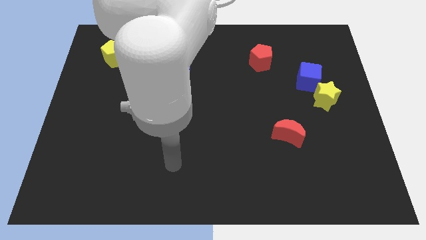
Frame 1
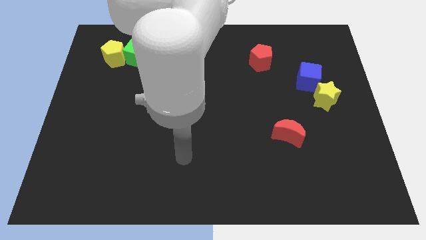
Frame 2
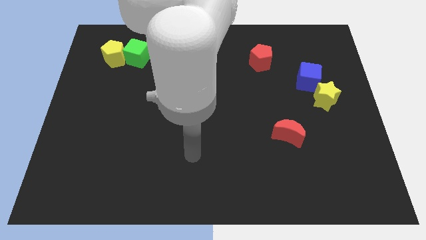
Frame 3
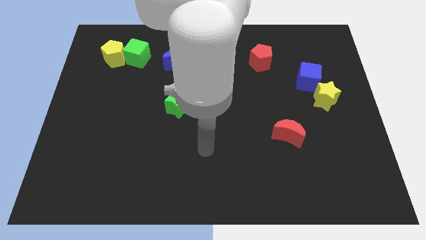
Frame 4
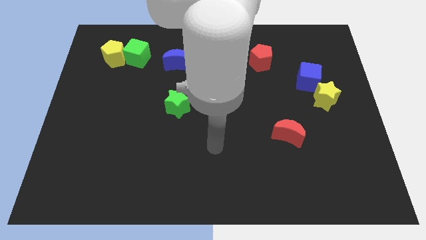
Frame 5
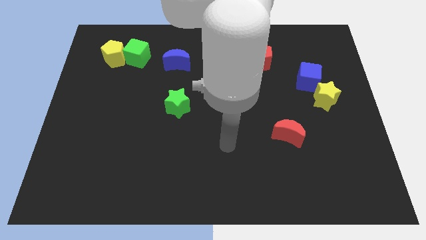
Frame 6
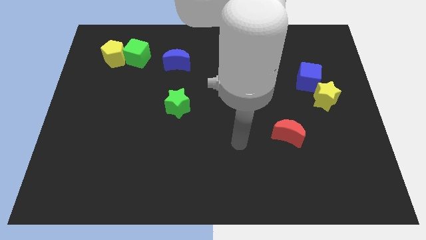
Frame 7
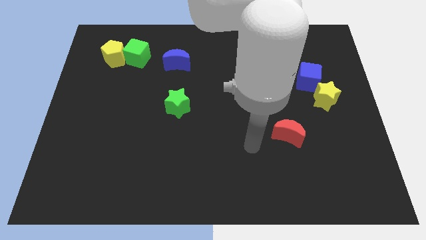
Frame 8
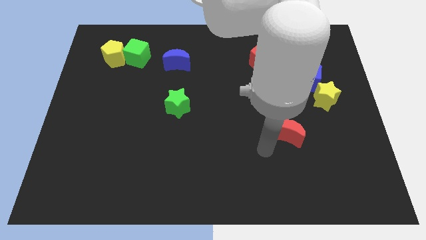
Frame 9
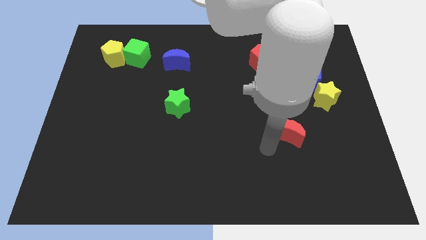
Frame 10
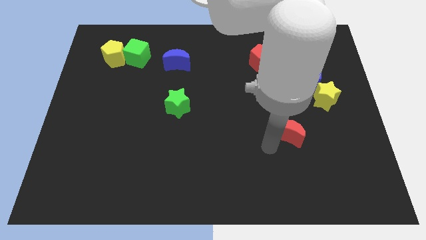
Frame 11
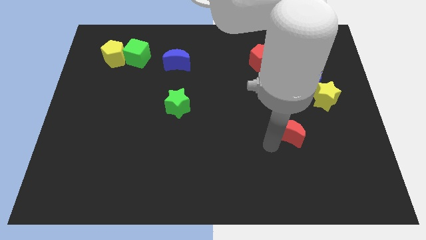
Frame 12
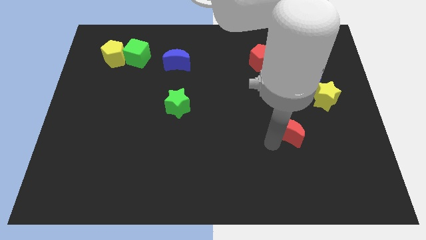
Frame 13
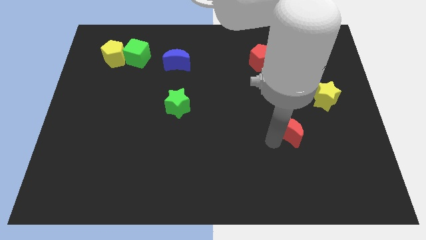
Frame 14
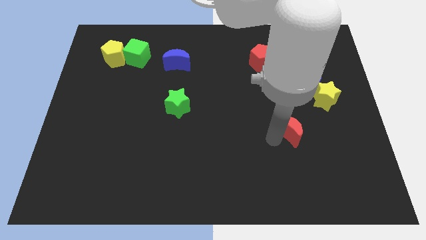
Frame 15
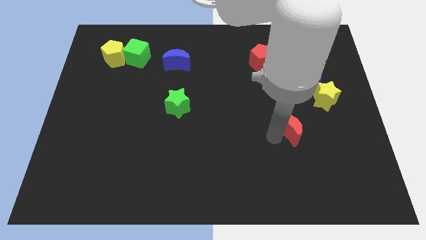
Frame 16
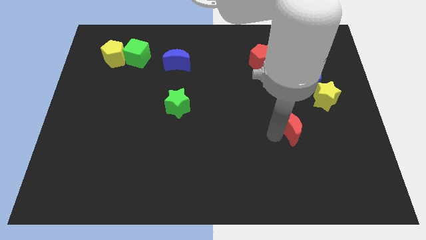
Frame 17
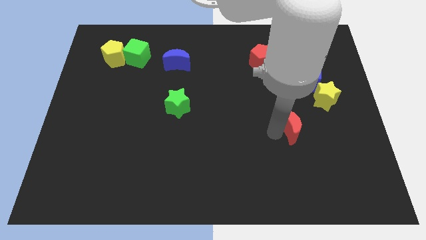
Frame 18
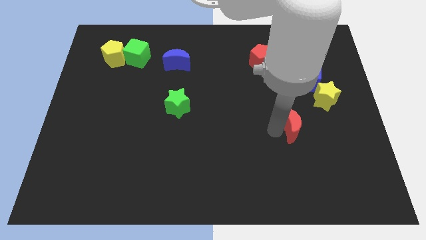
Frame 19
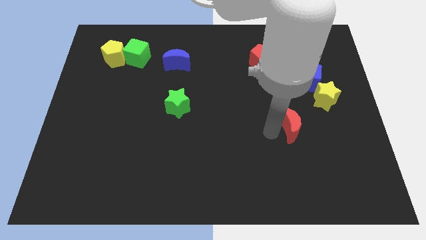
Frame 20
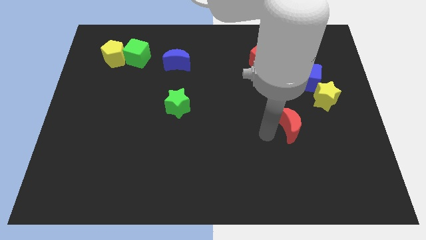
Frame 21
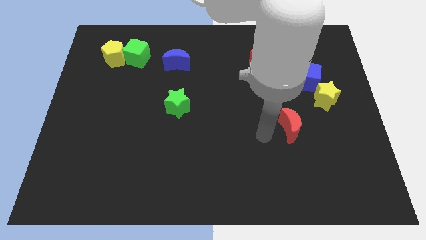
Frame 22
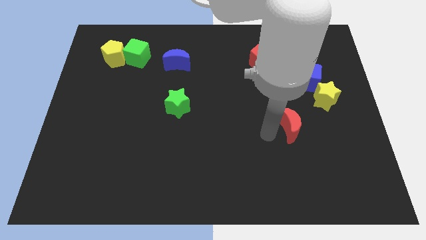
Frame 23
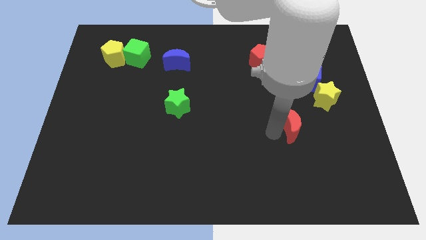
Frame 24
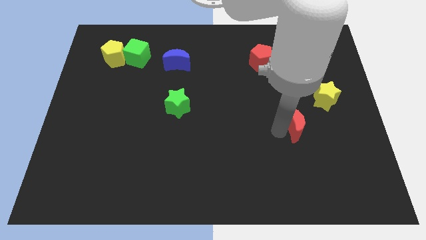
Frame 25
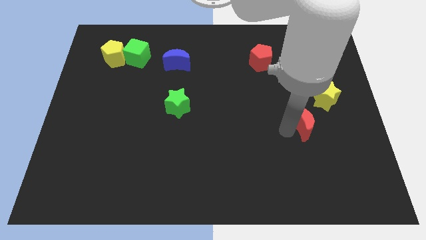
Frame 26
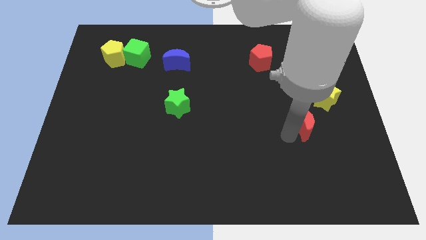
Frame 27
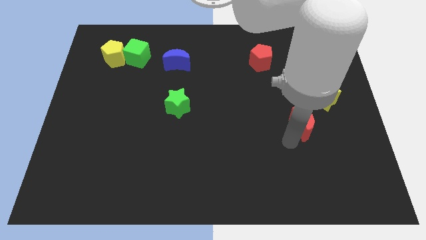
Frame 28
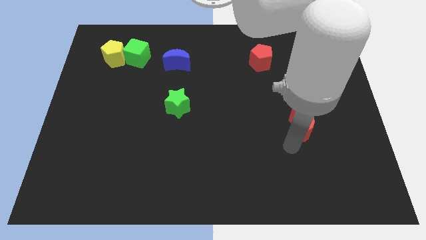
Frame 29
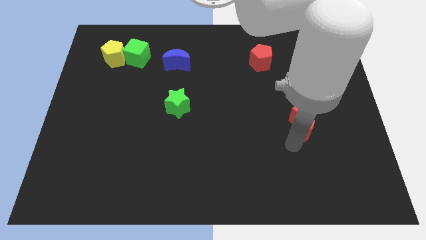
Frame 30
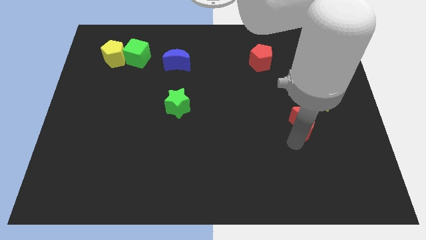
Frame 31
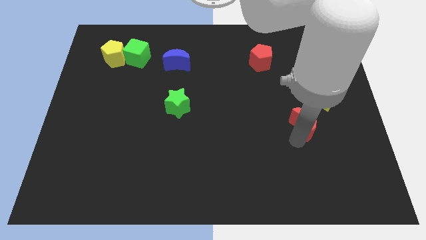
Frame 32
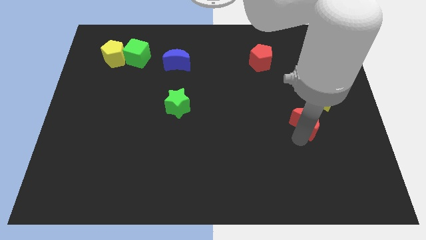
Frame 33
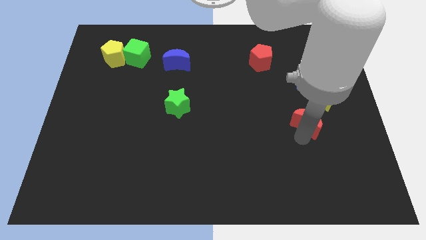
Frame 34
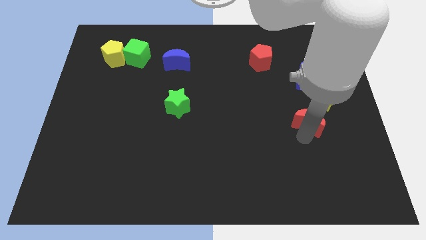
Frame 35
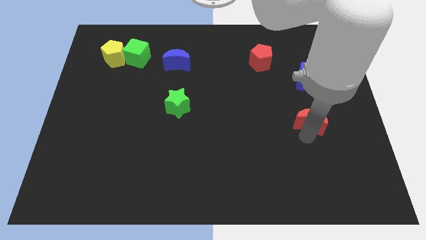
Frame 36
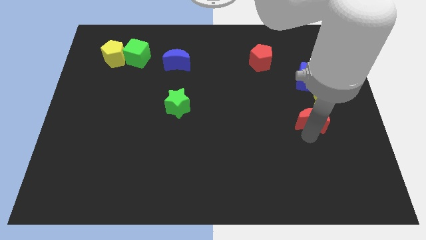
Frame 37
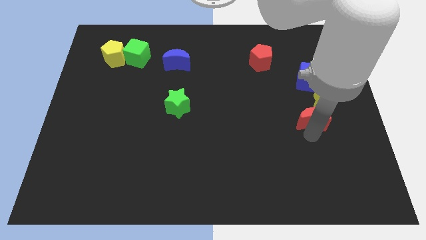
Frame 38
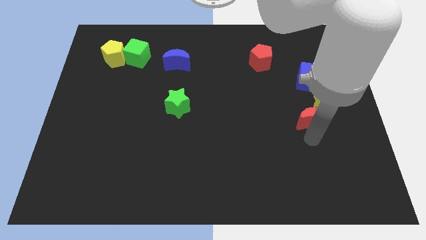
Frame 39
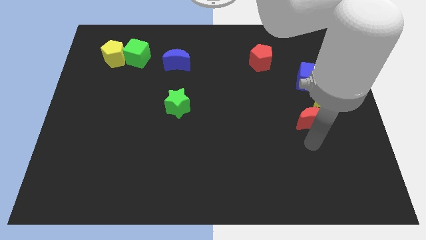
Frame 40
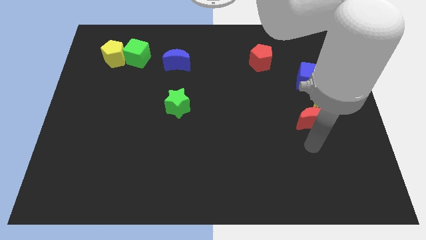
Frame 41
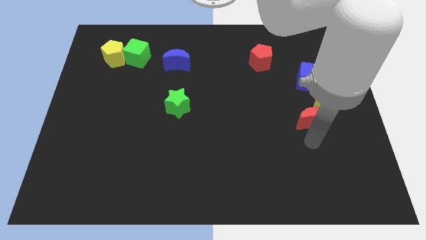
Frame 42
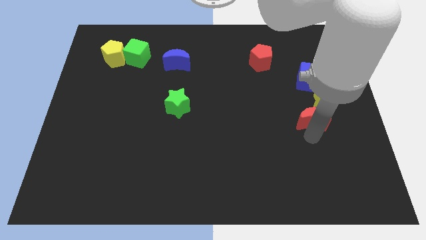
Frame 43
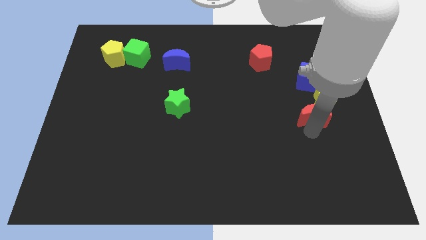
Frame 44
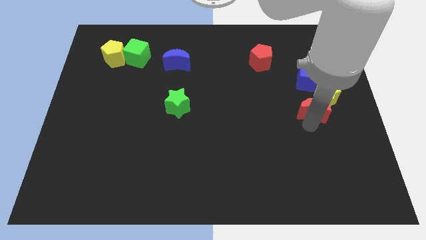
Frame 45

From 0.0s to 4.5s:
move the red moon to the yellow star

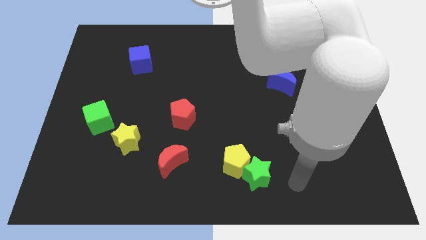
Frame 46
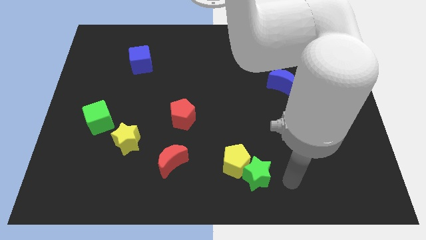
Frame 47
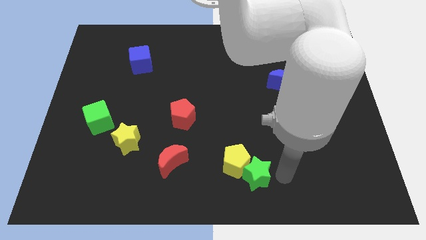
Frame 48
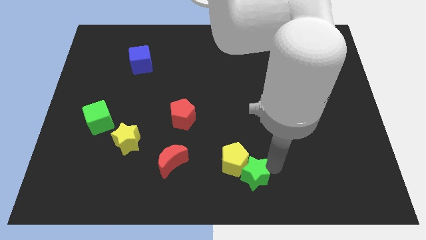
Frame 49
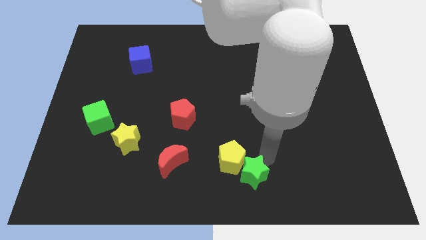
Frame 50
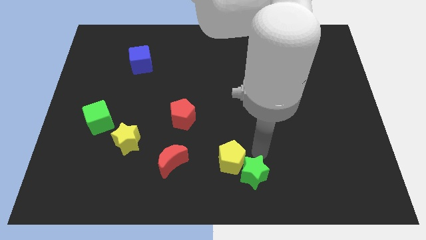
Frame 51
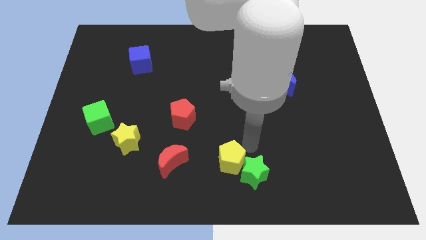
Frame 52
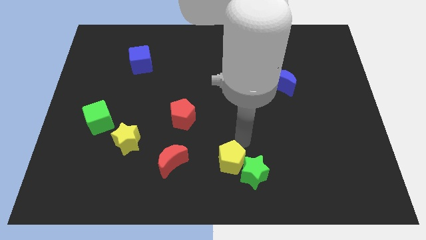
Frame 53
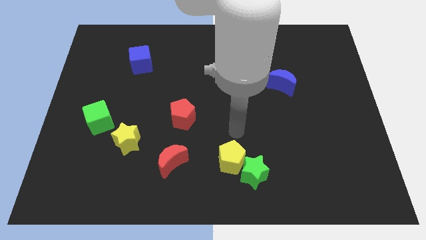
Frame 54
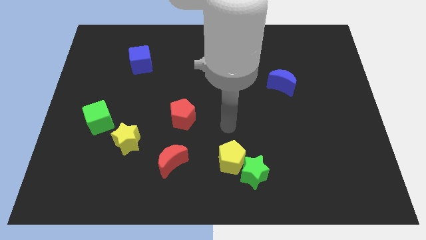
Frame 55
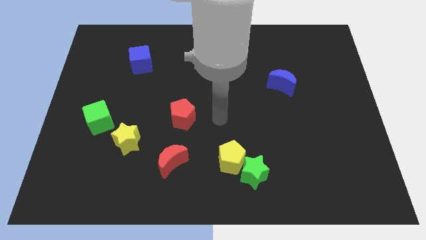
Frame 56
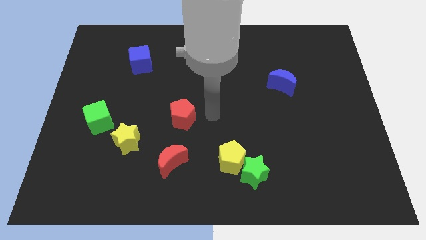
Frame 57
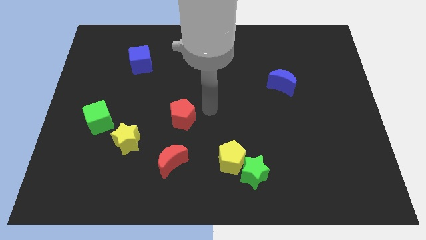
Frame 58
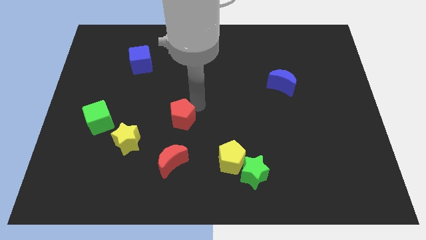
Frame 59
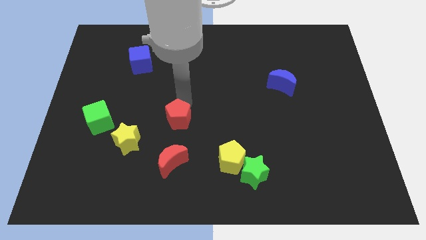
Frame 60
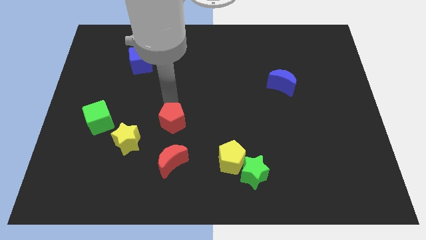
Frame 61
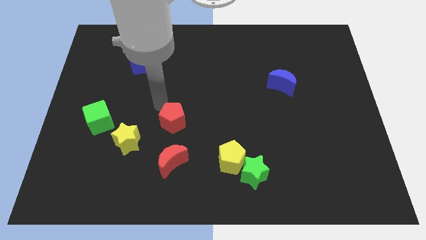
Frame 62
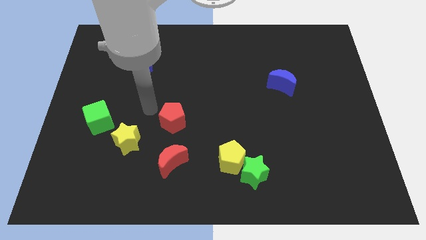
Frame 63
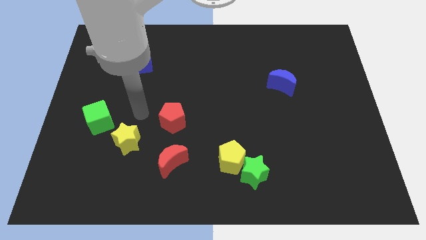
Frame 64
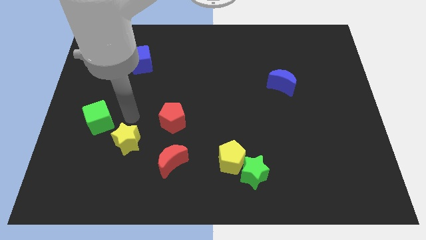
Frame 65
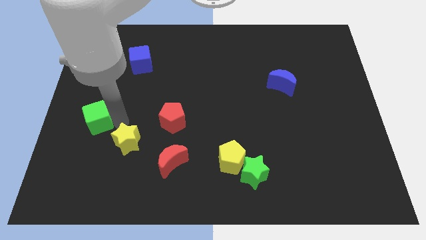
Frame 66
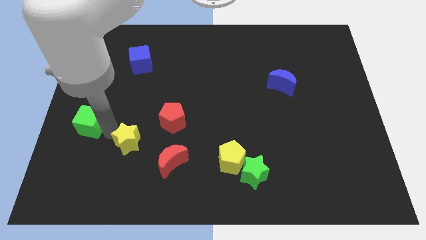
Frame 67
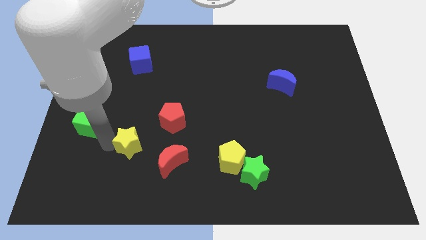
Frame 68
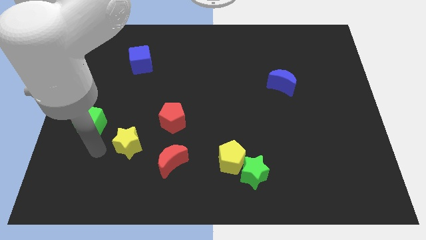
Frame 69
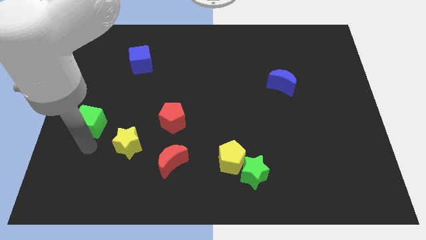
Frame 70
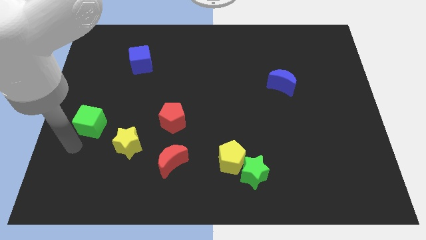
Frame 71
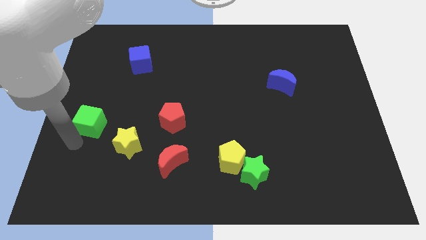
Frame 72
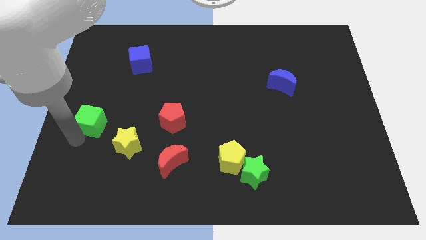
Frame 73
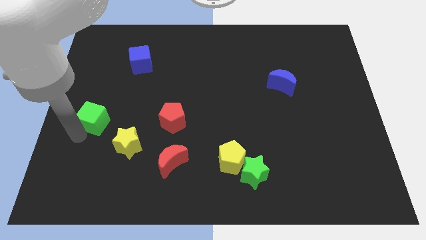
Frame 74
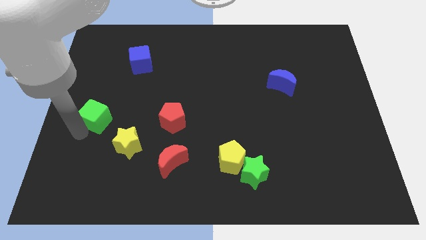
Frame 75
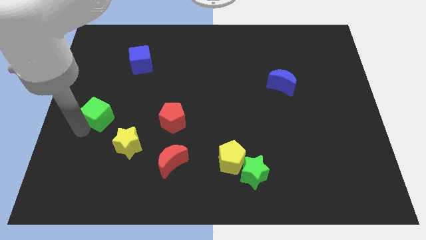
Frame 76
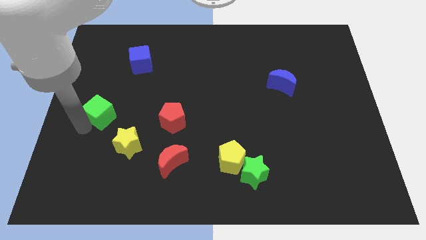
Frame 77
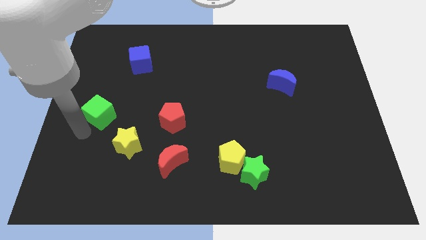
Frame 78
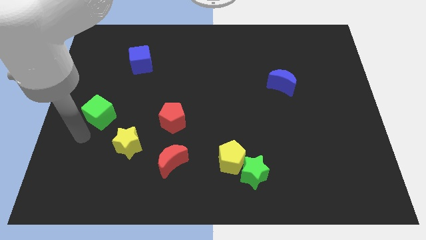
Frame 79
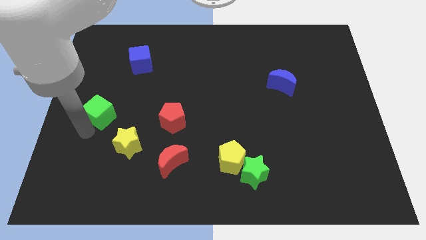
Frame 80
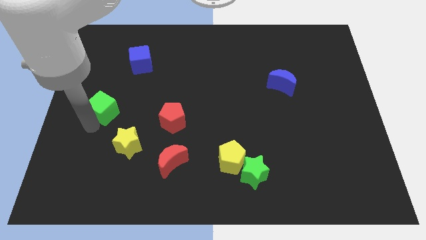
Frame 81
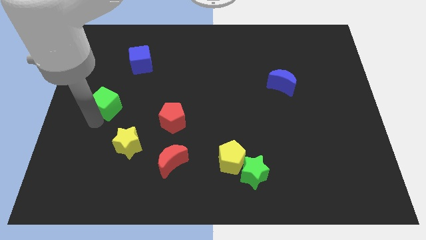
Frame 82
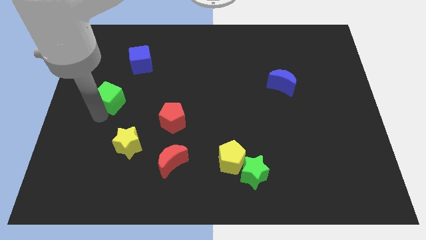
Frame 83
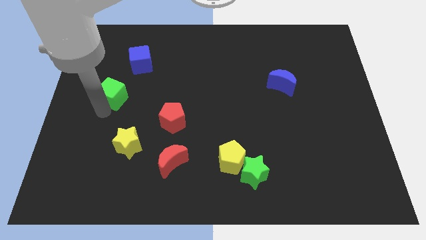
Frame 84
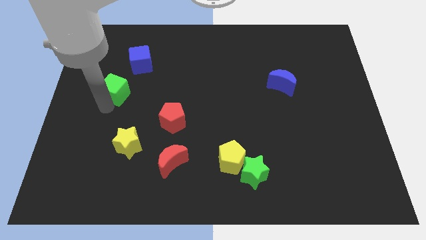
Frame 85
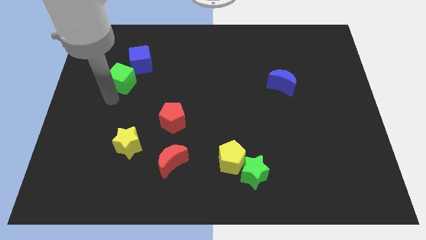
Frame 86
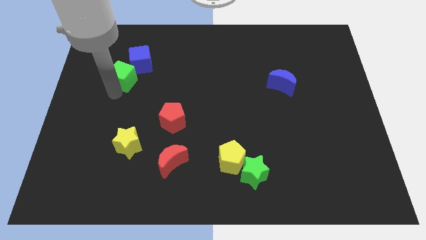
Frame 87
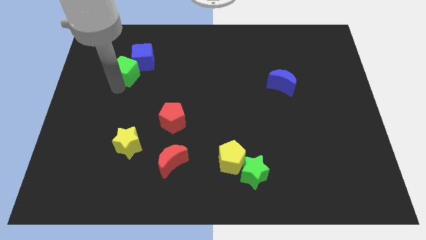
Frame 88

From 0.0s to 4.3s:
push the green cube towards the blue cube
